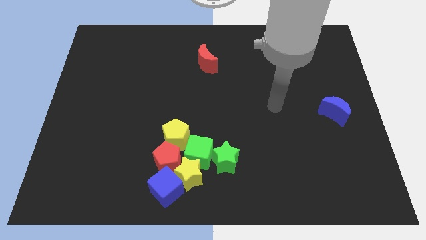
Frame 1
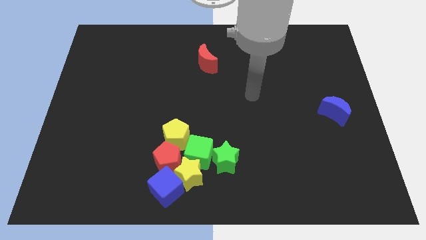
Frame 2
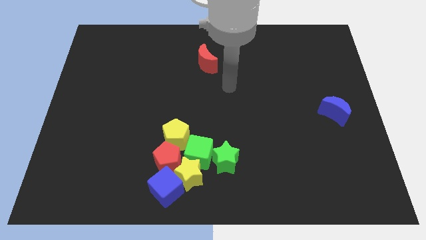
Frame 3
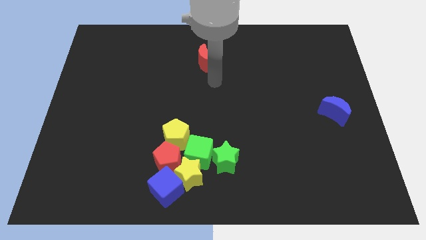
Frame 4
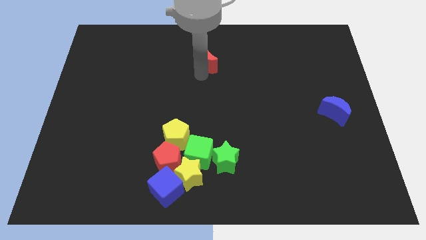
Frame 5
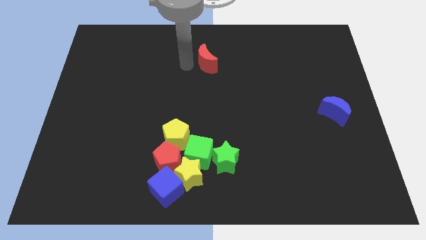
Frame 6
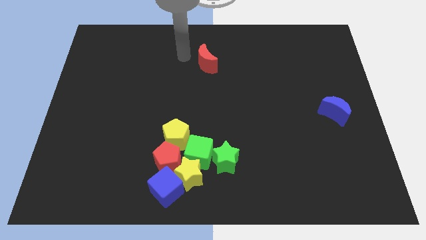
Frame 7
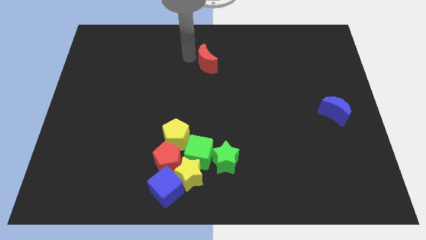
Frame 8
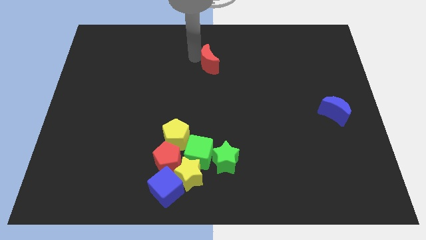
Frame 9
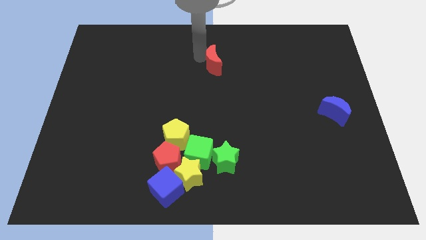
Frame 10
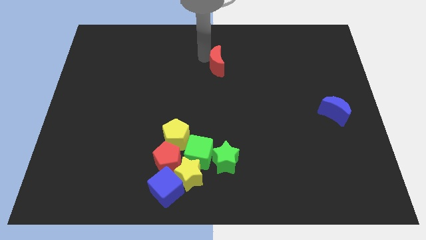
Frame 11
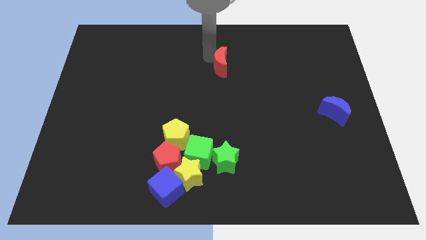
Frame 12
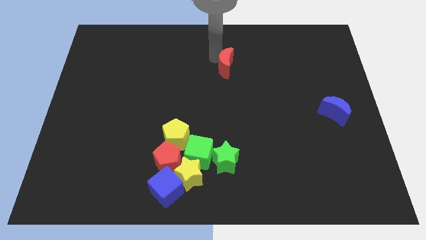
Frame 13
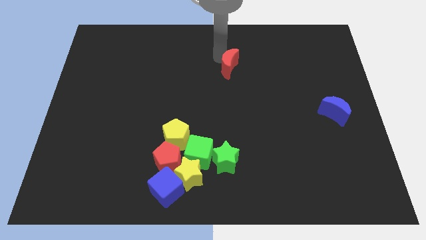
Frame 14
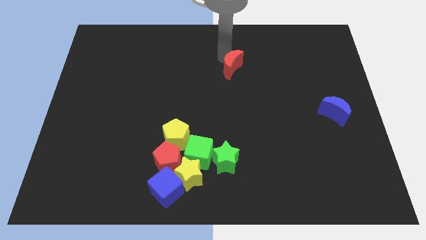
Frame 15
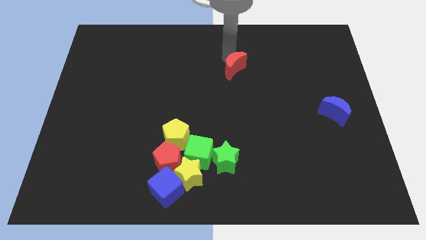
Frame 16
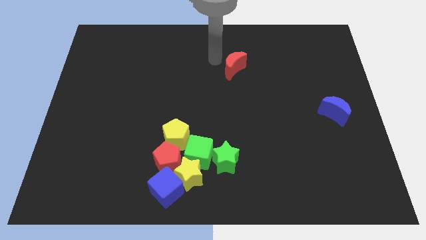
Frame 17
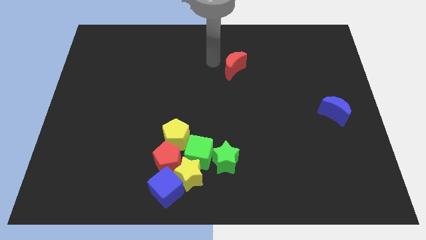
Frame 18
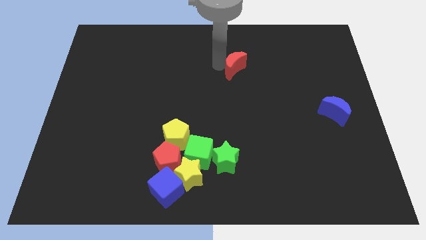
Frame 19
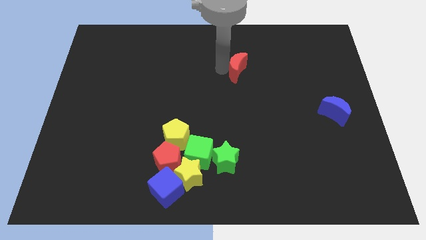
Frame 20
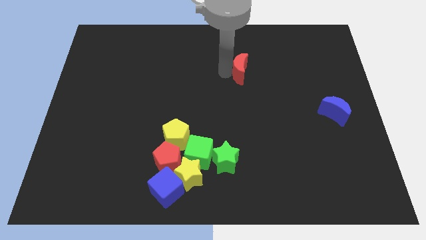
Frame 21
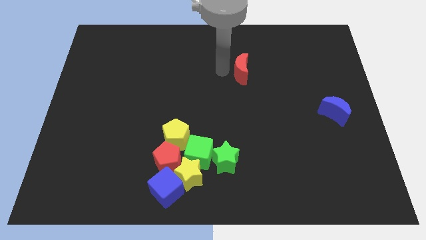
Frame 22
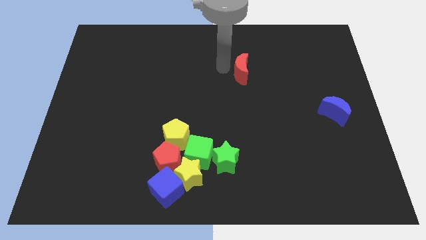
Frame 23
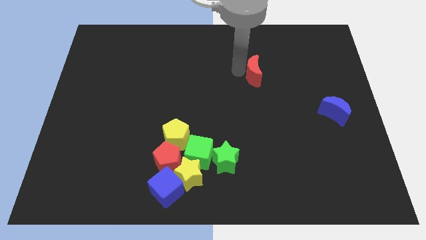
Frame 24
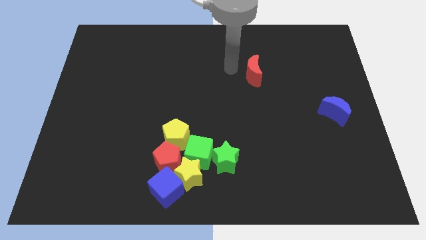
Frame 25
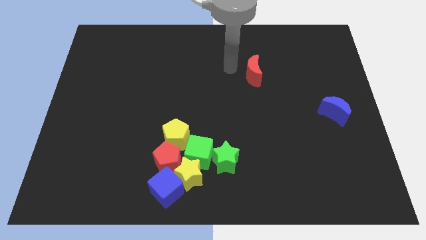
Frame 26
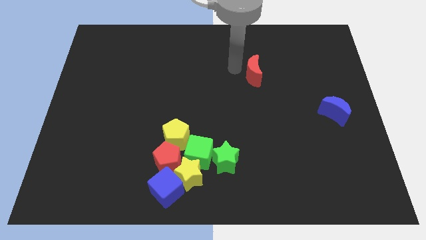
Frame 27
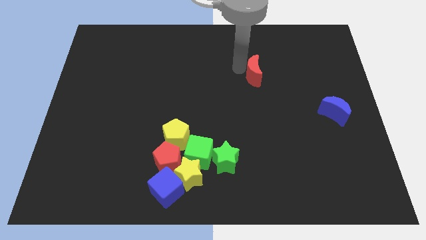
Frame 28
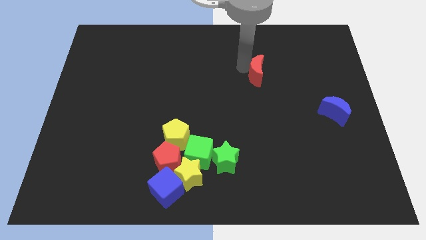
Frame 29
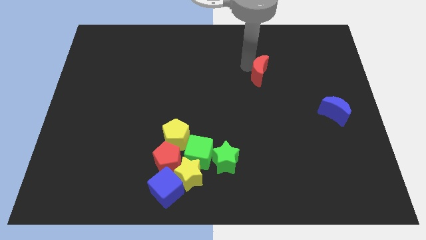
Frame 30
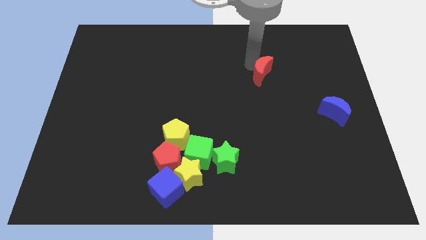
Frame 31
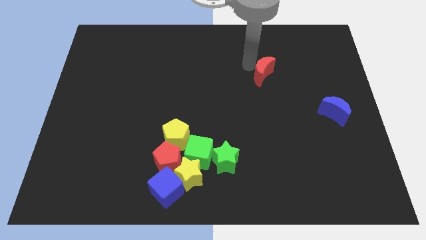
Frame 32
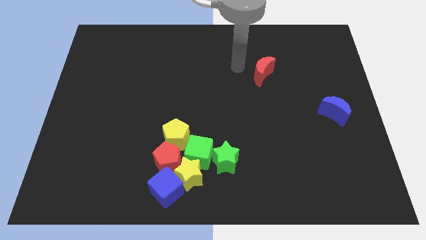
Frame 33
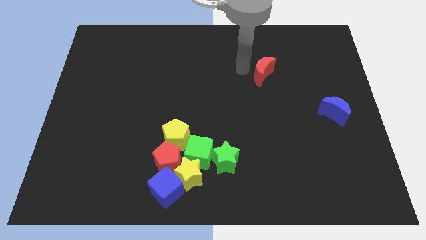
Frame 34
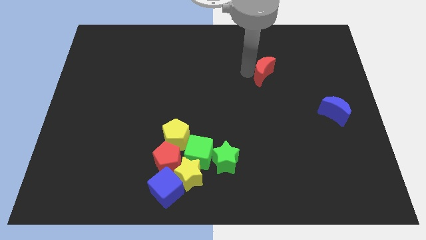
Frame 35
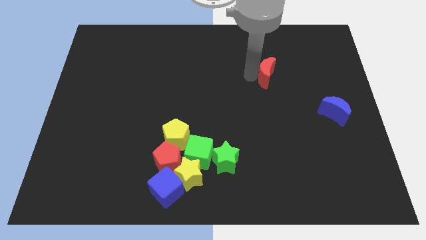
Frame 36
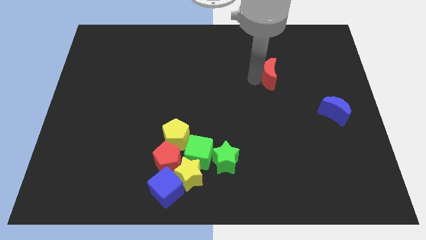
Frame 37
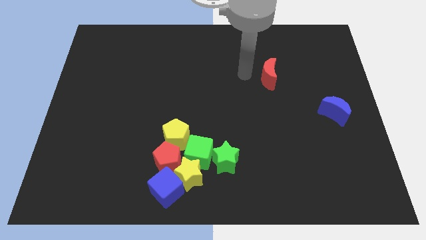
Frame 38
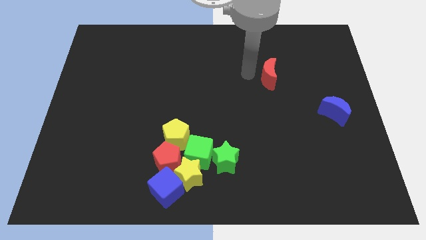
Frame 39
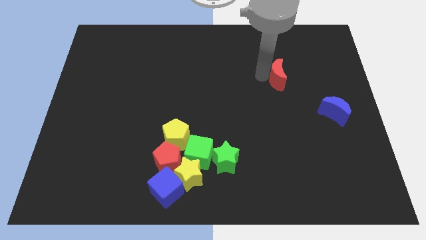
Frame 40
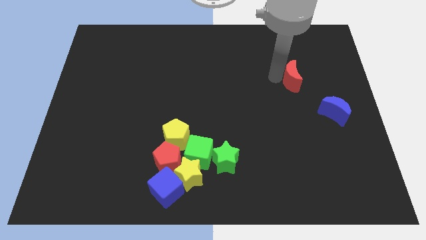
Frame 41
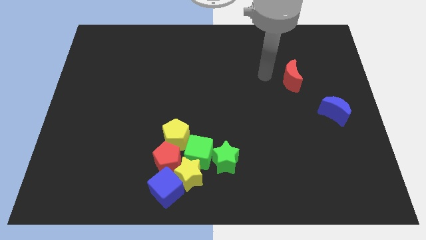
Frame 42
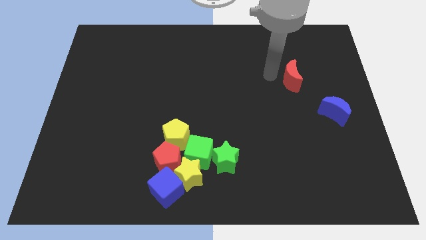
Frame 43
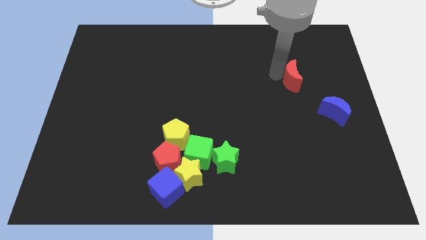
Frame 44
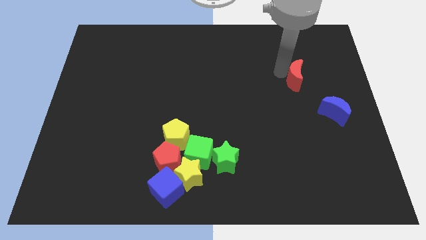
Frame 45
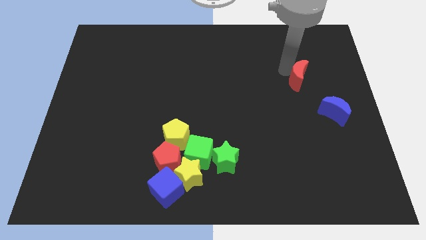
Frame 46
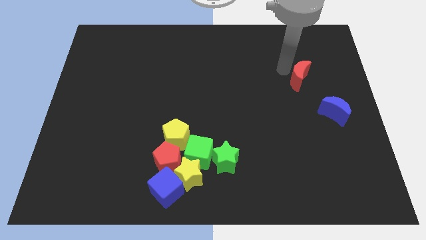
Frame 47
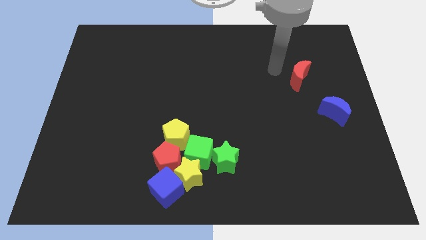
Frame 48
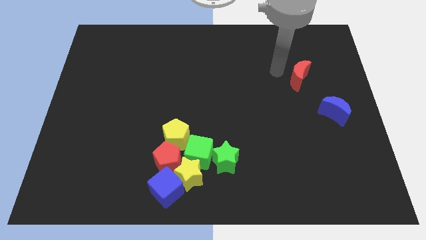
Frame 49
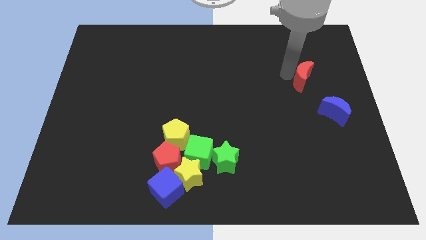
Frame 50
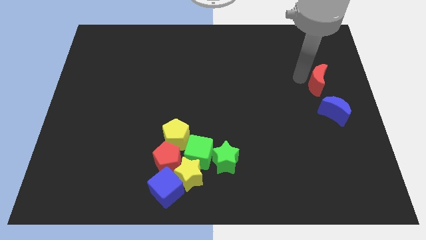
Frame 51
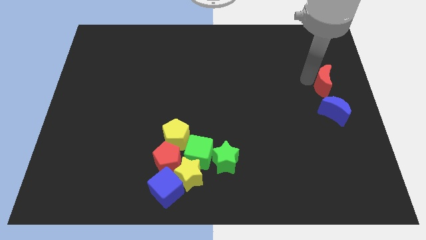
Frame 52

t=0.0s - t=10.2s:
push the red moon to the right side
